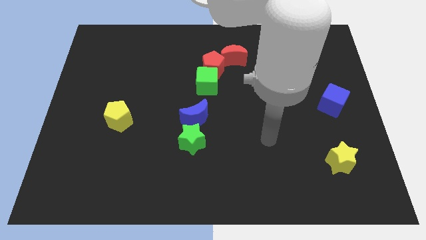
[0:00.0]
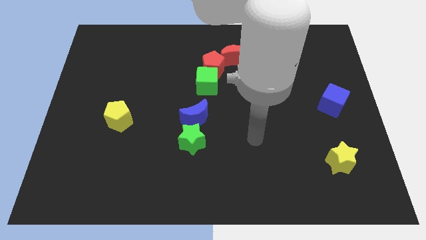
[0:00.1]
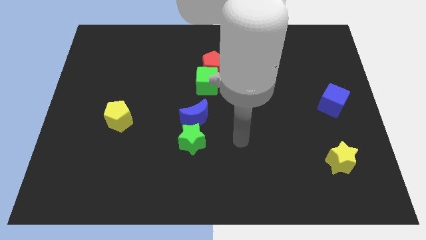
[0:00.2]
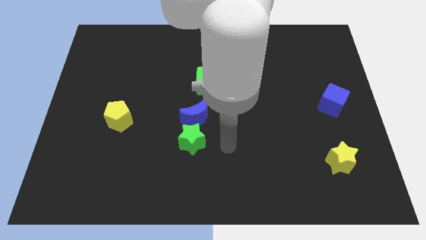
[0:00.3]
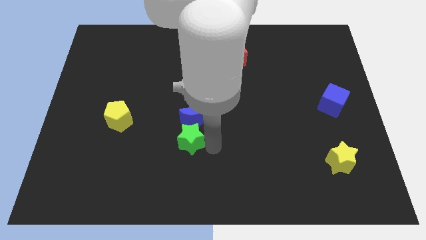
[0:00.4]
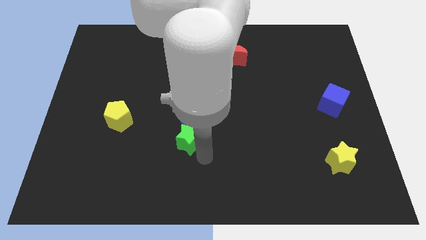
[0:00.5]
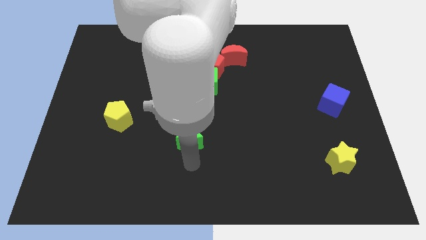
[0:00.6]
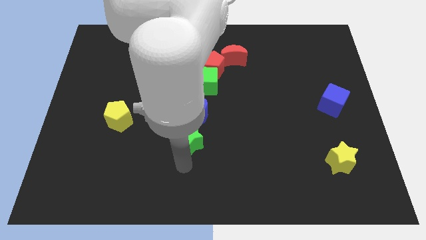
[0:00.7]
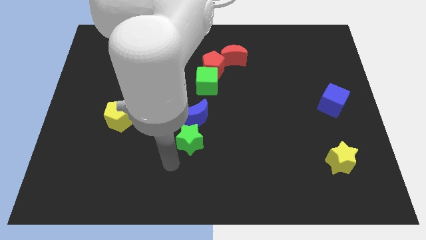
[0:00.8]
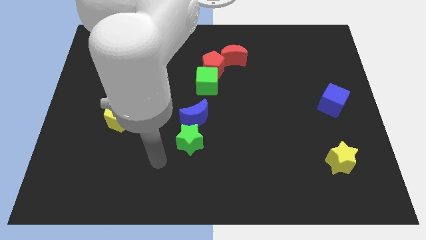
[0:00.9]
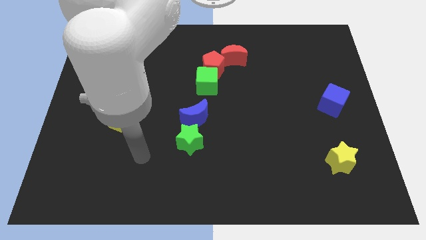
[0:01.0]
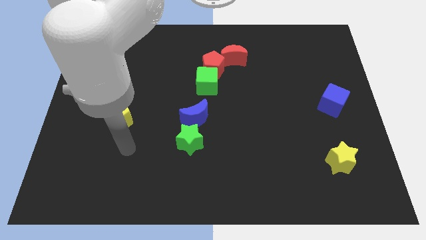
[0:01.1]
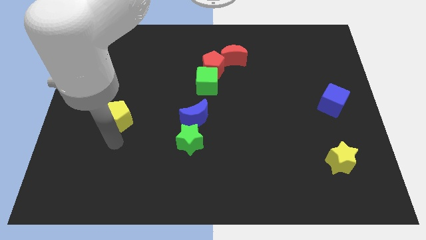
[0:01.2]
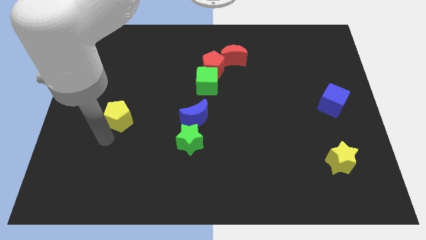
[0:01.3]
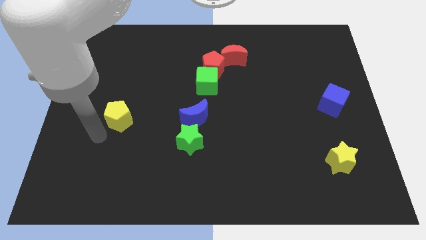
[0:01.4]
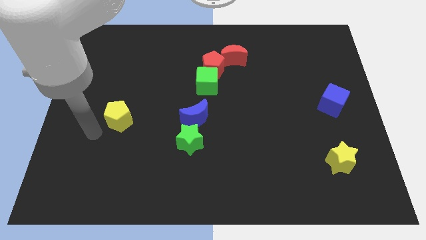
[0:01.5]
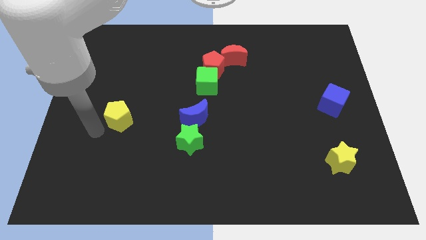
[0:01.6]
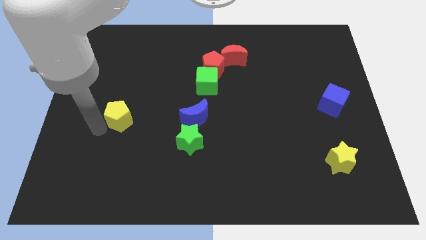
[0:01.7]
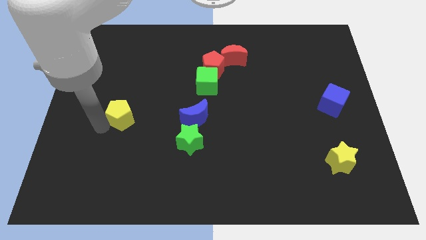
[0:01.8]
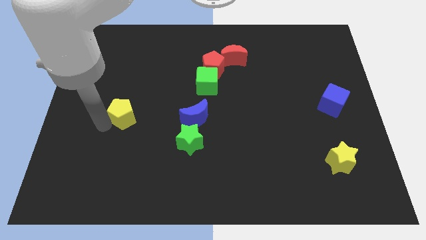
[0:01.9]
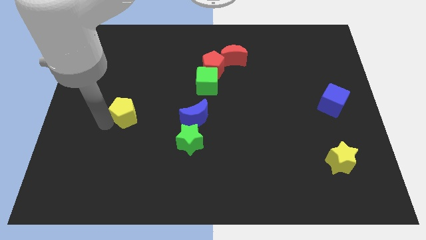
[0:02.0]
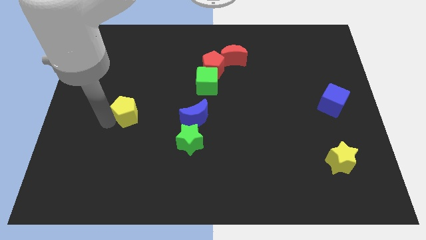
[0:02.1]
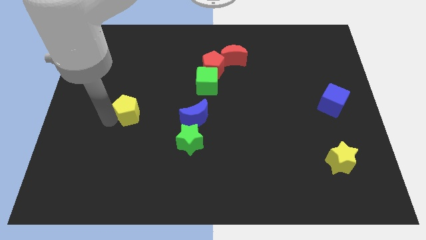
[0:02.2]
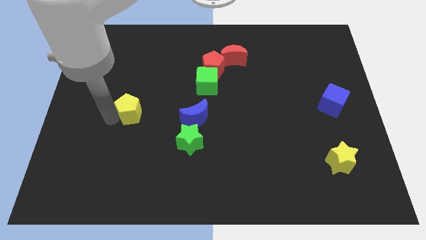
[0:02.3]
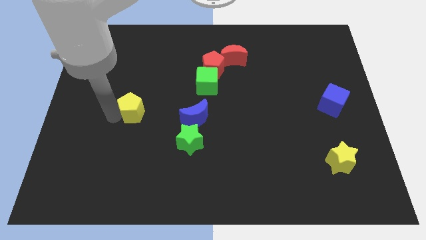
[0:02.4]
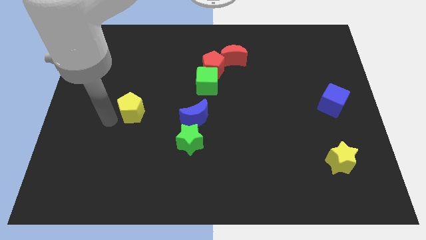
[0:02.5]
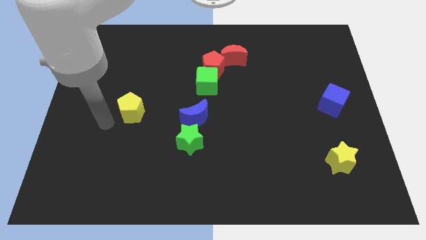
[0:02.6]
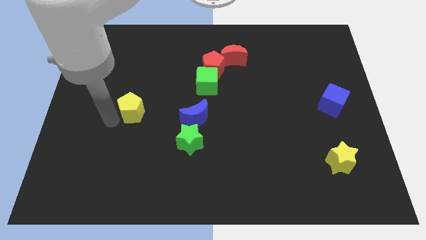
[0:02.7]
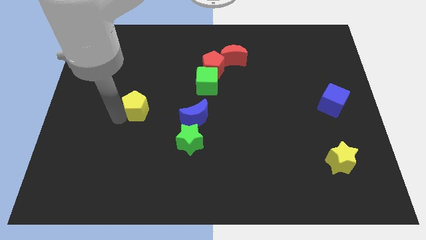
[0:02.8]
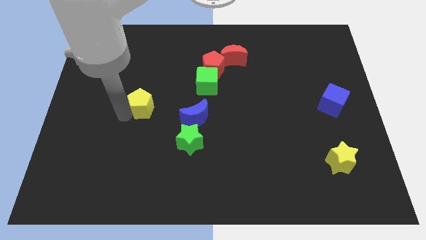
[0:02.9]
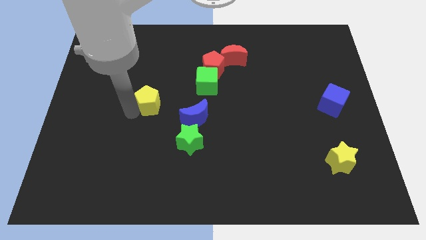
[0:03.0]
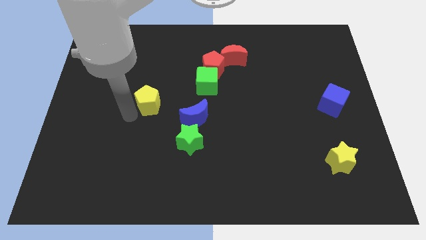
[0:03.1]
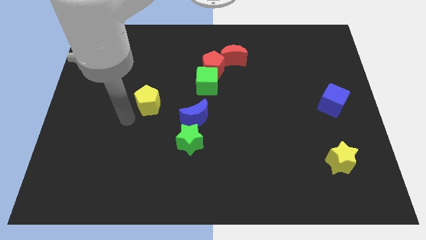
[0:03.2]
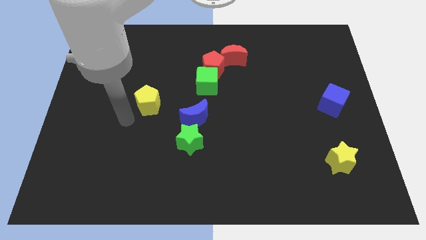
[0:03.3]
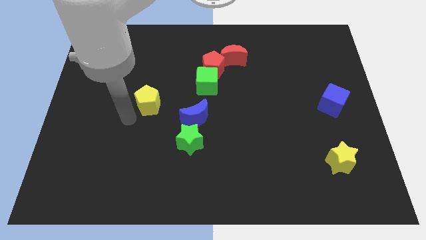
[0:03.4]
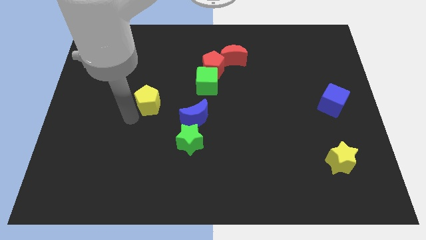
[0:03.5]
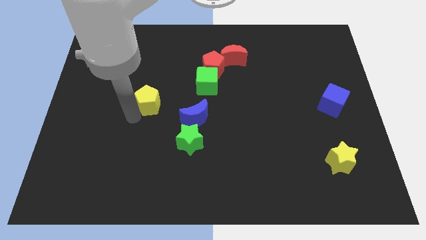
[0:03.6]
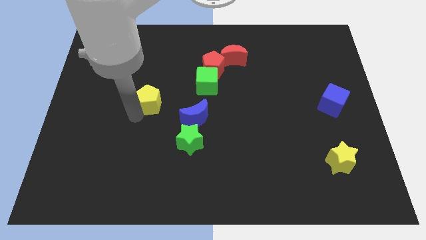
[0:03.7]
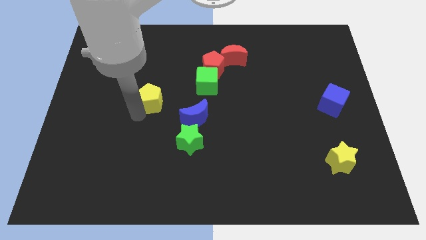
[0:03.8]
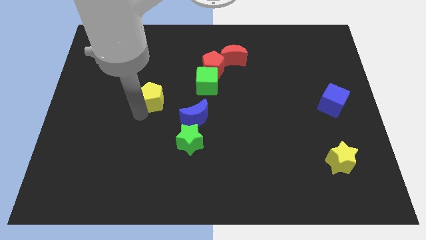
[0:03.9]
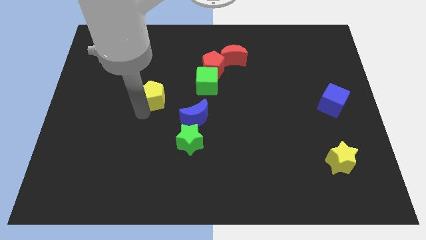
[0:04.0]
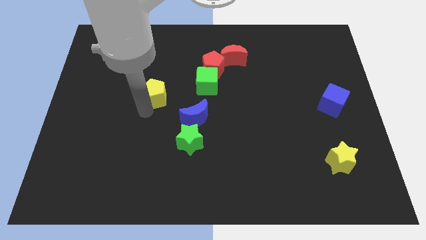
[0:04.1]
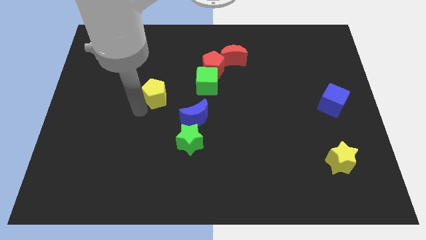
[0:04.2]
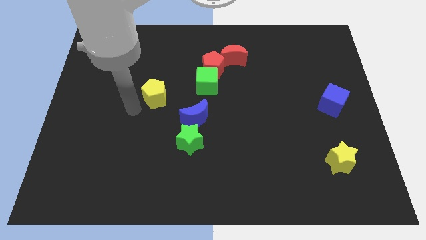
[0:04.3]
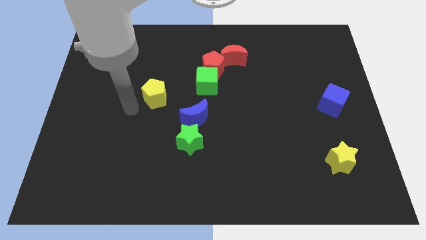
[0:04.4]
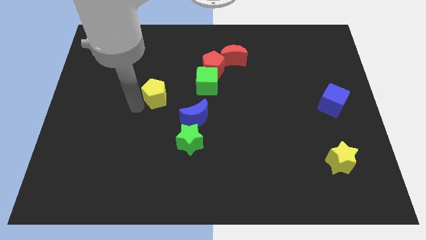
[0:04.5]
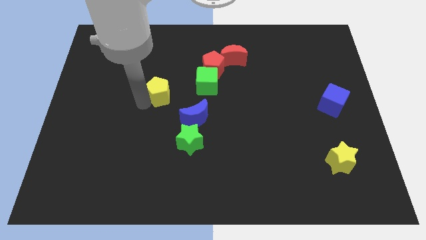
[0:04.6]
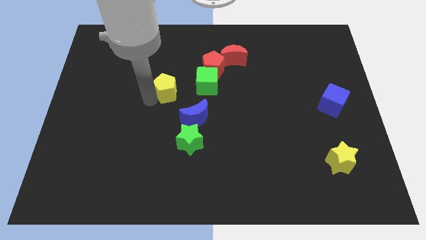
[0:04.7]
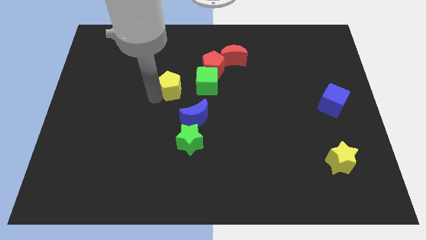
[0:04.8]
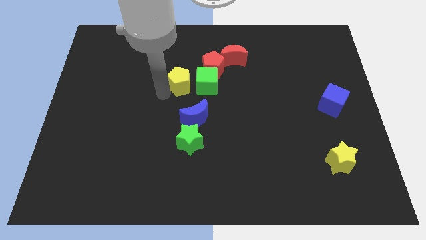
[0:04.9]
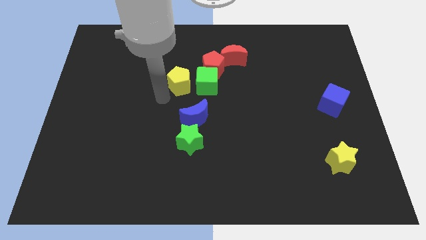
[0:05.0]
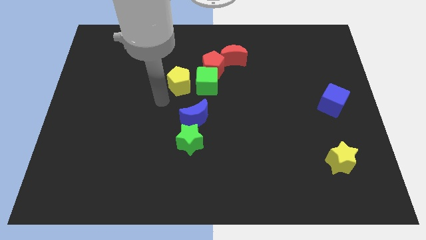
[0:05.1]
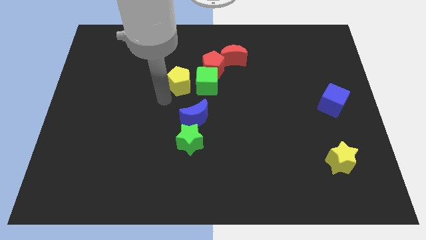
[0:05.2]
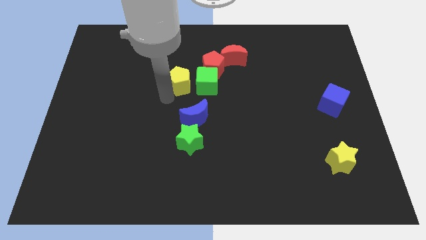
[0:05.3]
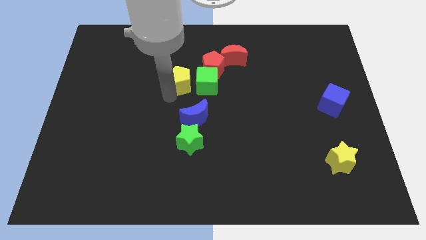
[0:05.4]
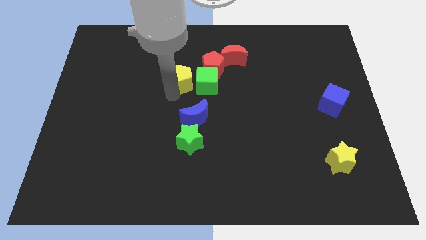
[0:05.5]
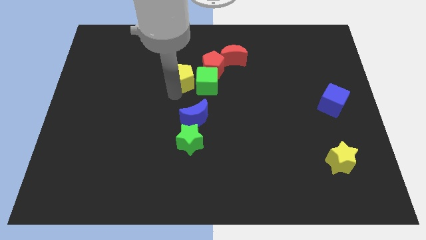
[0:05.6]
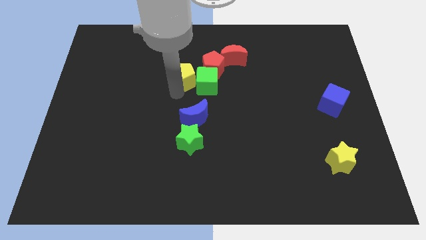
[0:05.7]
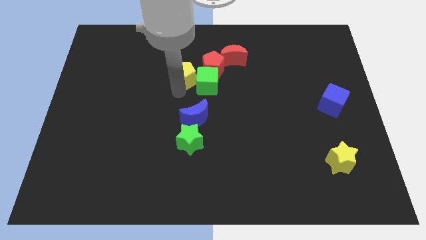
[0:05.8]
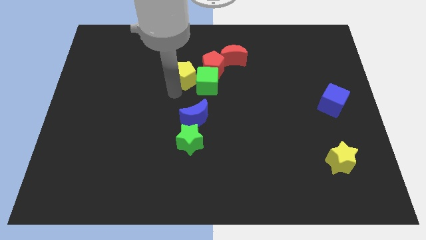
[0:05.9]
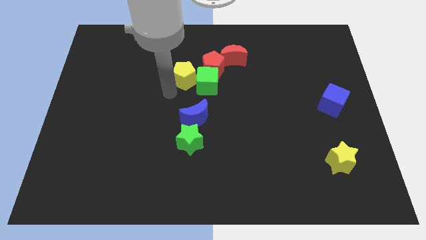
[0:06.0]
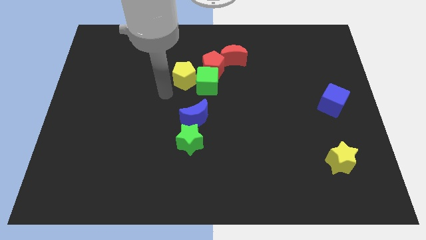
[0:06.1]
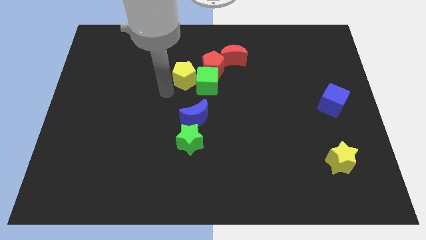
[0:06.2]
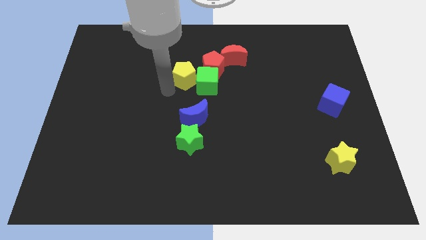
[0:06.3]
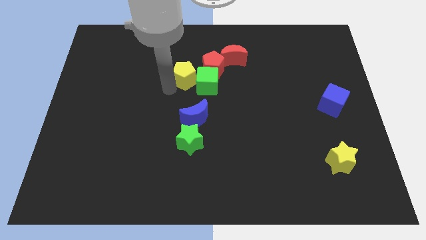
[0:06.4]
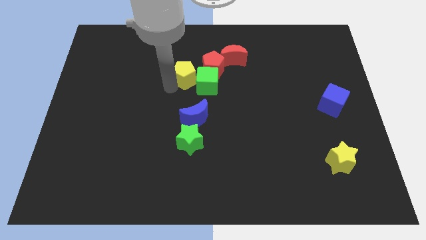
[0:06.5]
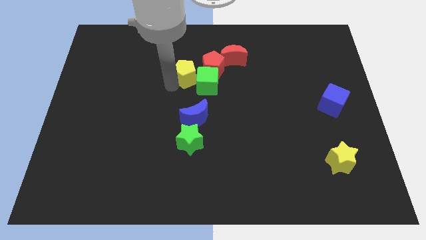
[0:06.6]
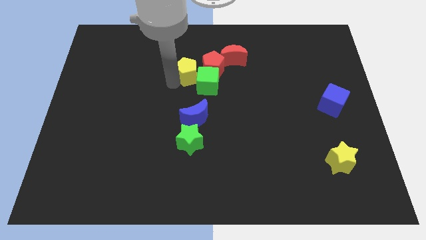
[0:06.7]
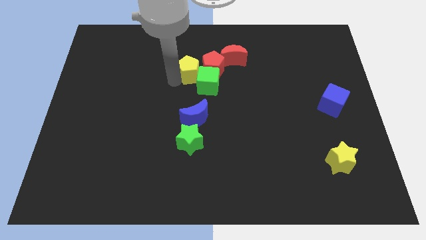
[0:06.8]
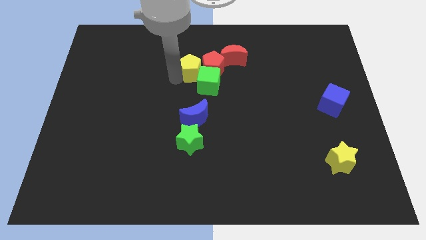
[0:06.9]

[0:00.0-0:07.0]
put the yellow pentagon towards the red pentagon
